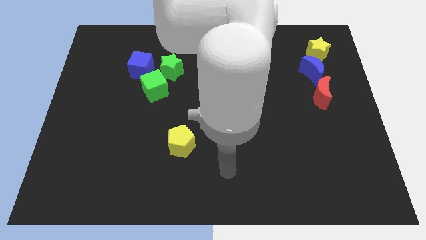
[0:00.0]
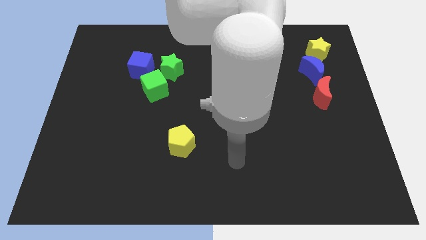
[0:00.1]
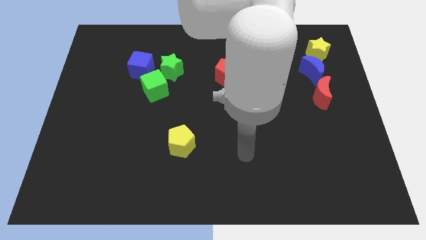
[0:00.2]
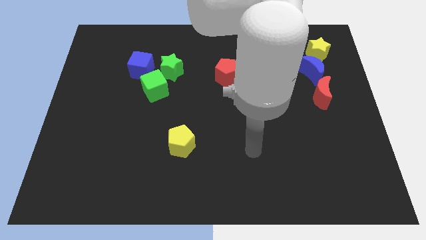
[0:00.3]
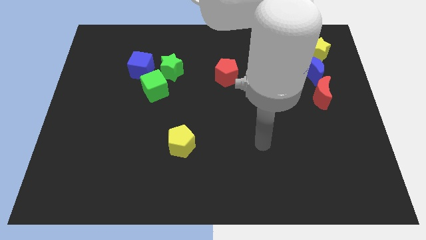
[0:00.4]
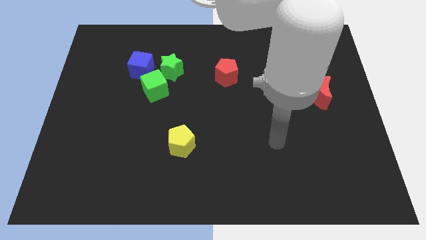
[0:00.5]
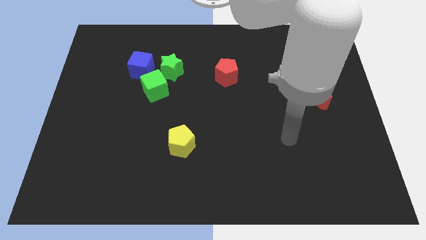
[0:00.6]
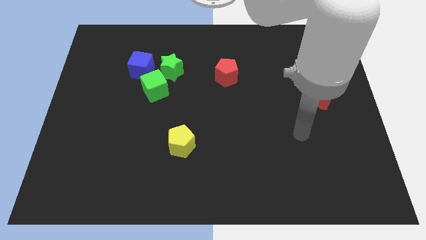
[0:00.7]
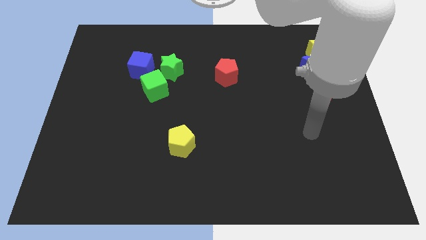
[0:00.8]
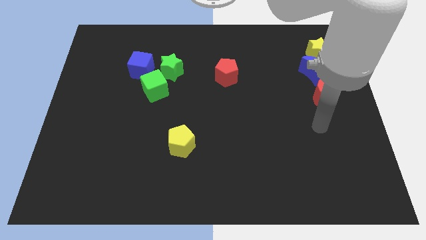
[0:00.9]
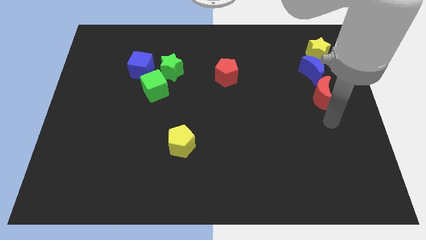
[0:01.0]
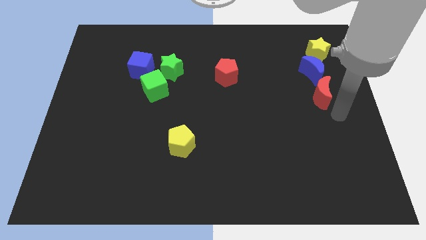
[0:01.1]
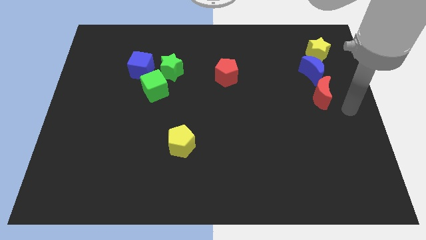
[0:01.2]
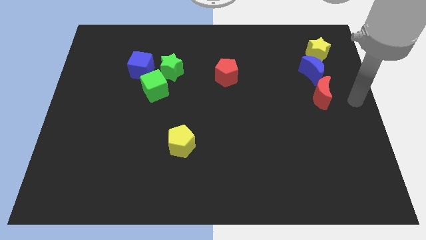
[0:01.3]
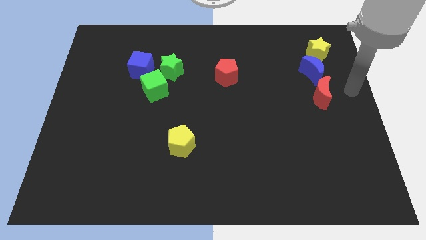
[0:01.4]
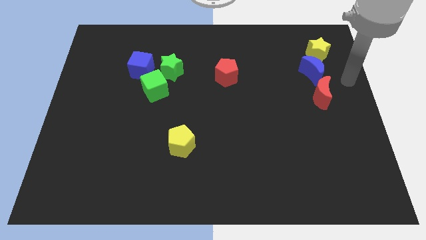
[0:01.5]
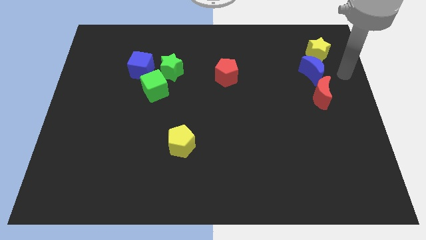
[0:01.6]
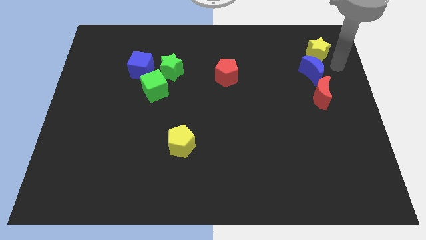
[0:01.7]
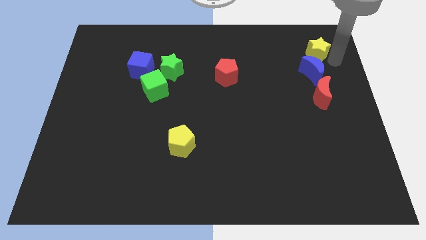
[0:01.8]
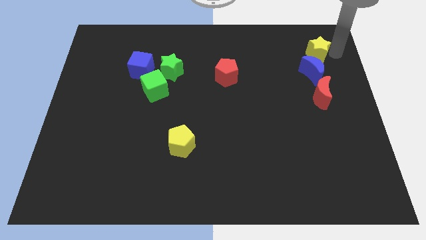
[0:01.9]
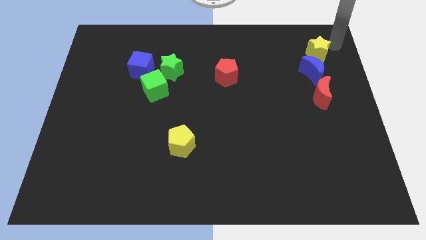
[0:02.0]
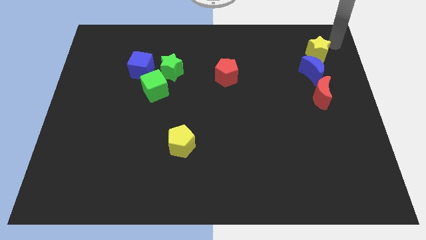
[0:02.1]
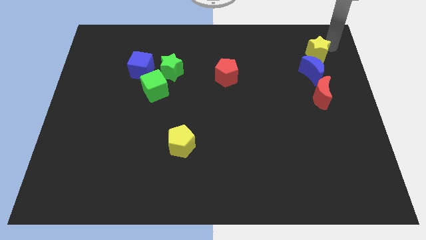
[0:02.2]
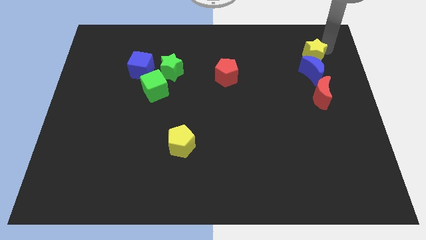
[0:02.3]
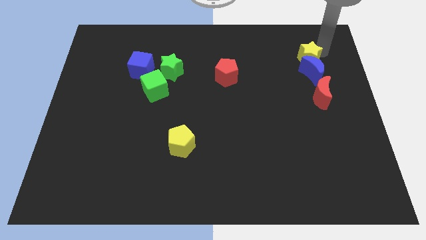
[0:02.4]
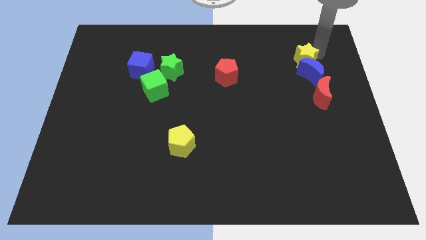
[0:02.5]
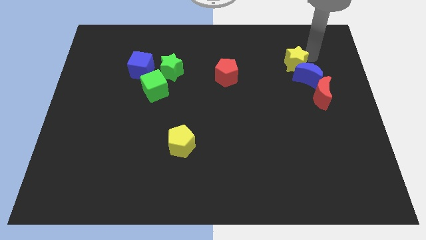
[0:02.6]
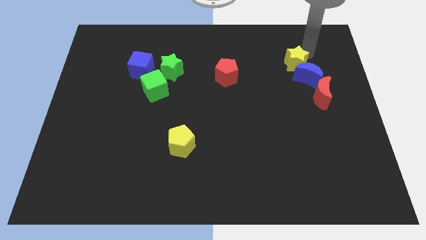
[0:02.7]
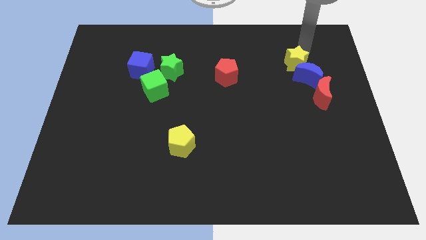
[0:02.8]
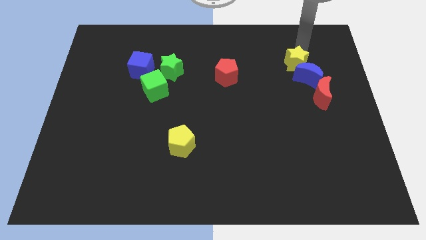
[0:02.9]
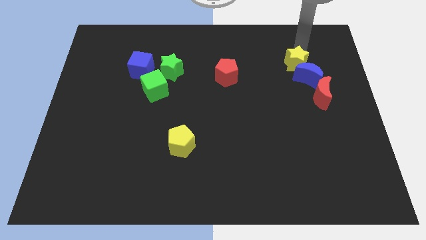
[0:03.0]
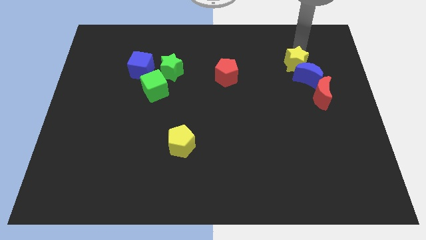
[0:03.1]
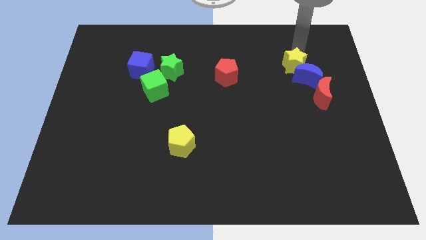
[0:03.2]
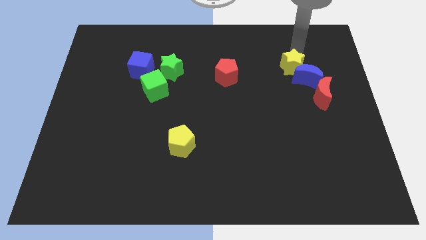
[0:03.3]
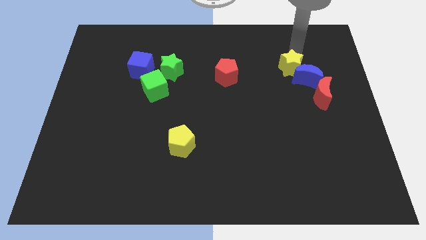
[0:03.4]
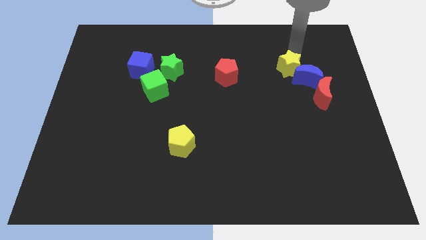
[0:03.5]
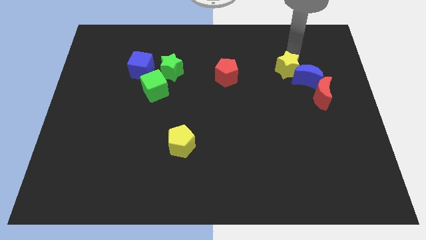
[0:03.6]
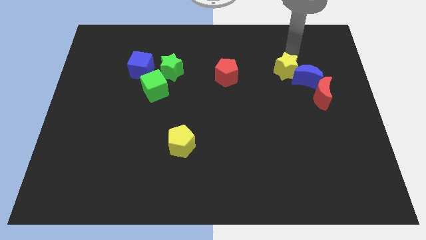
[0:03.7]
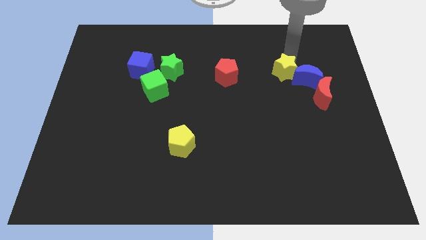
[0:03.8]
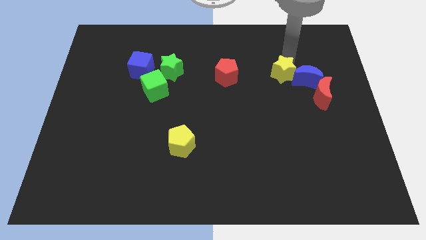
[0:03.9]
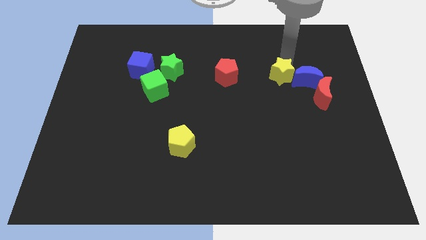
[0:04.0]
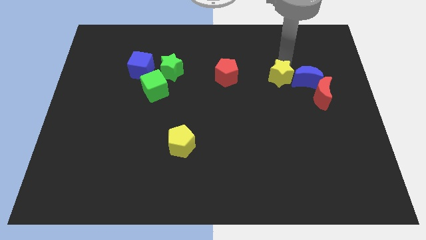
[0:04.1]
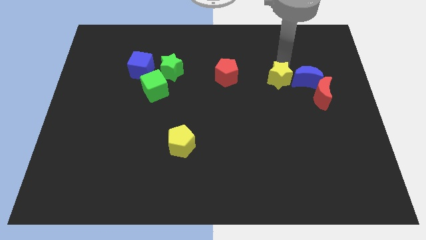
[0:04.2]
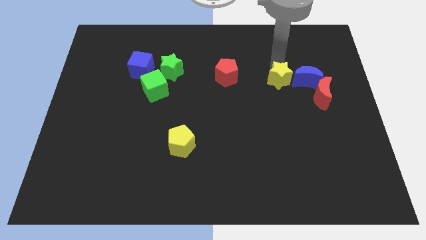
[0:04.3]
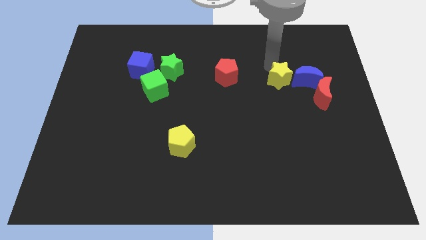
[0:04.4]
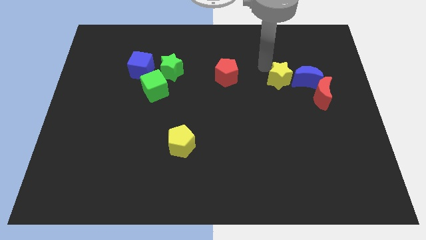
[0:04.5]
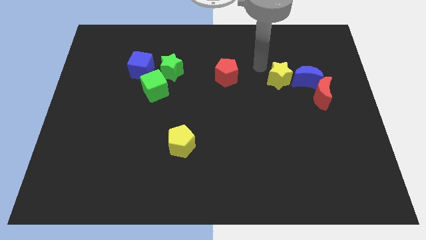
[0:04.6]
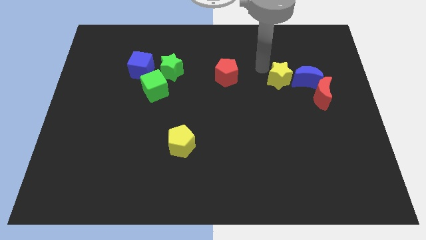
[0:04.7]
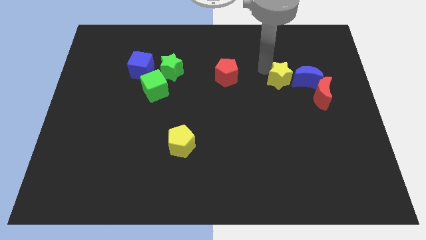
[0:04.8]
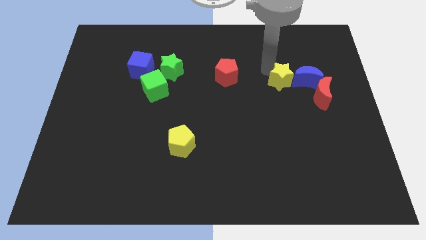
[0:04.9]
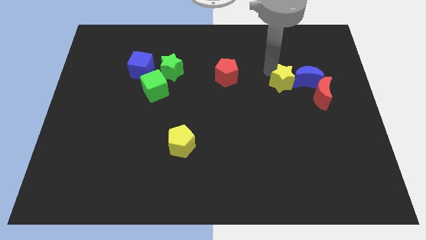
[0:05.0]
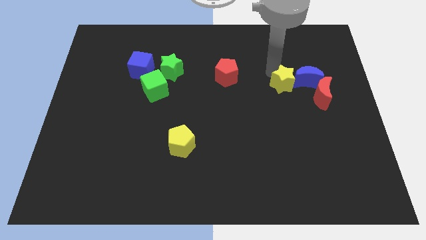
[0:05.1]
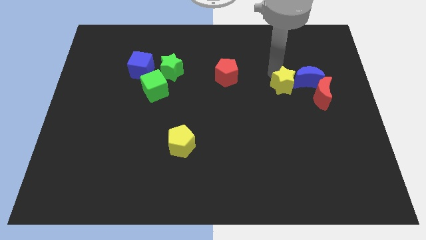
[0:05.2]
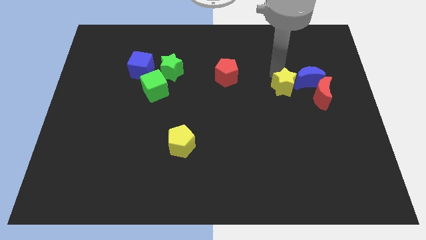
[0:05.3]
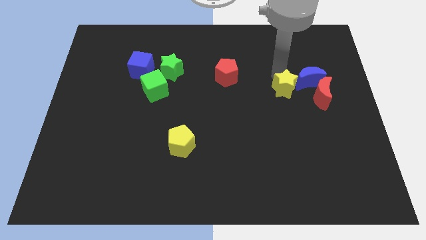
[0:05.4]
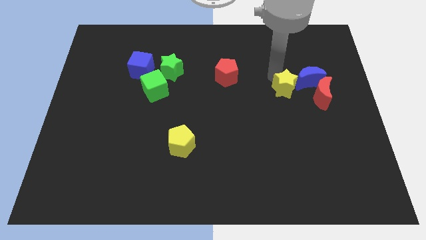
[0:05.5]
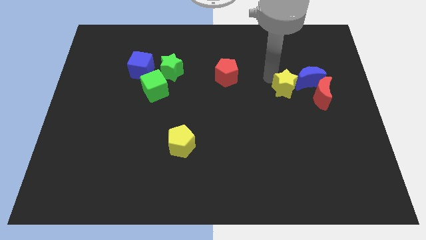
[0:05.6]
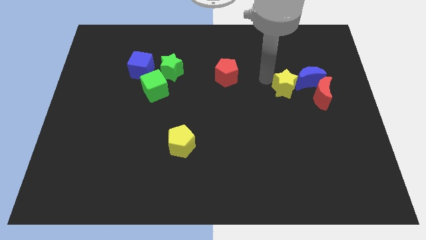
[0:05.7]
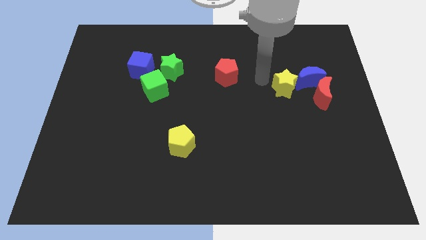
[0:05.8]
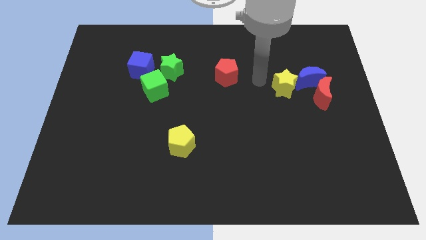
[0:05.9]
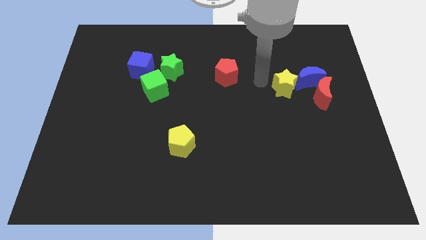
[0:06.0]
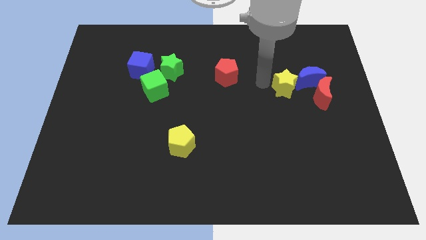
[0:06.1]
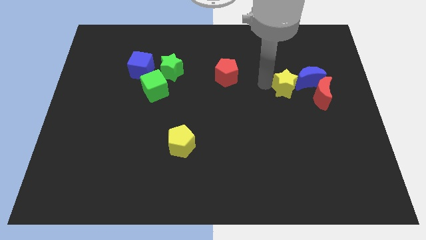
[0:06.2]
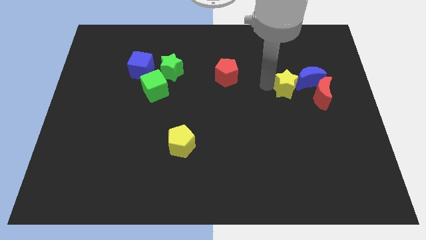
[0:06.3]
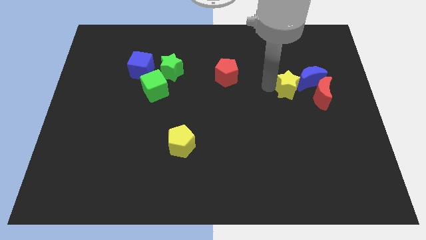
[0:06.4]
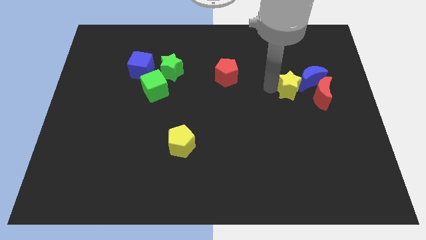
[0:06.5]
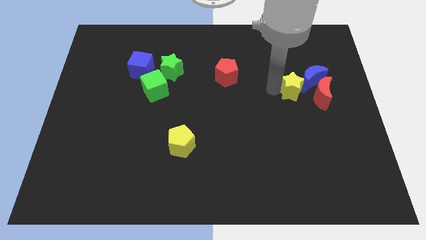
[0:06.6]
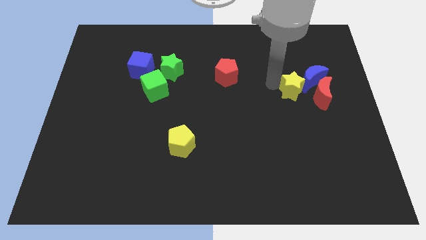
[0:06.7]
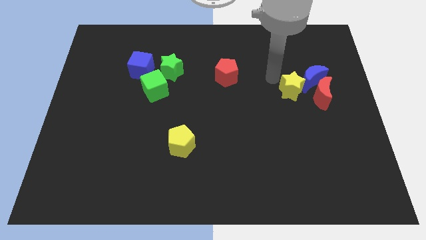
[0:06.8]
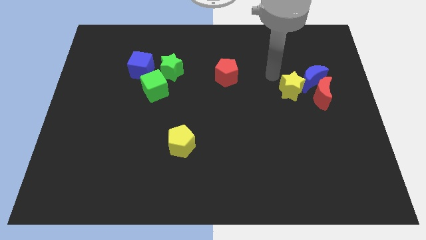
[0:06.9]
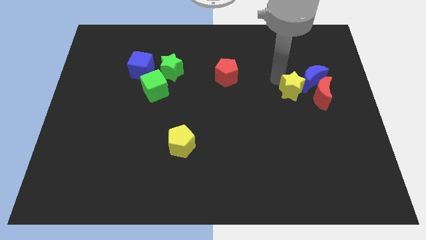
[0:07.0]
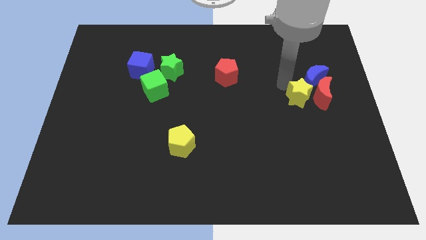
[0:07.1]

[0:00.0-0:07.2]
put the yellow star to the bottom side of the blue moon
